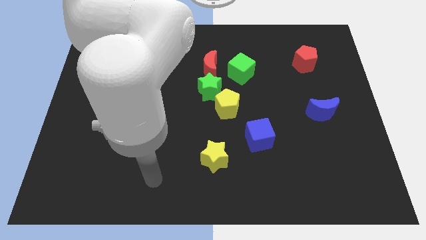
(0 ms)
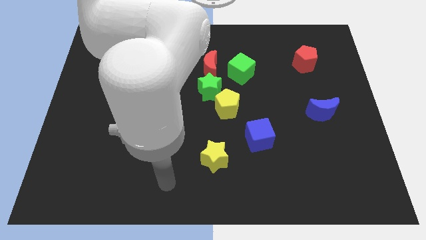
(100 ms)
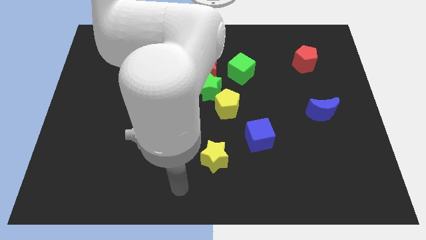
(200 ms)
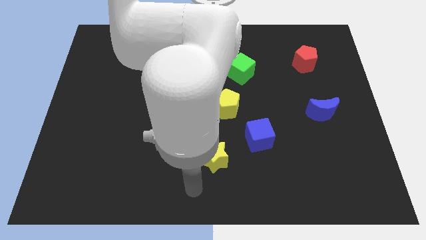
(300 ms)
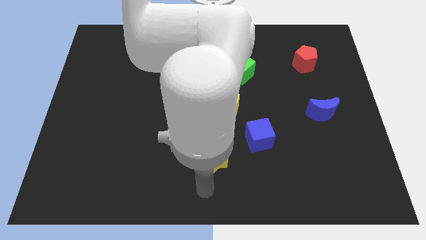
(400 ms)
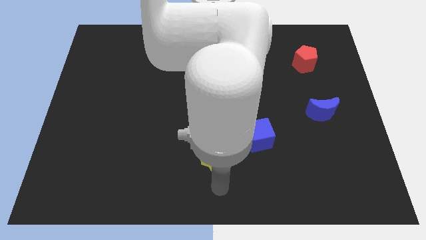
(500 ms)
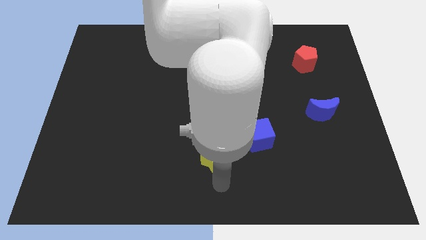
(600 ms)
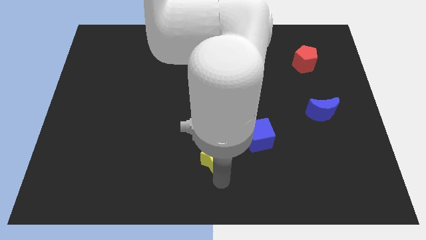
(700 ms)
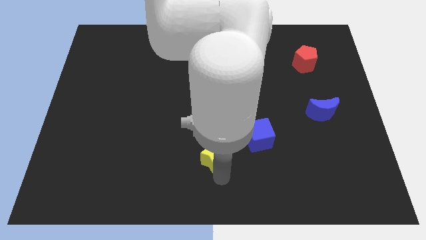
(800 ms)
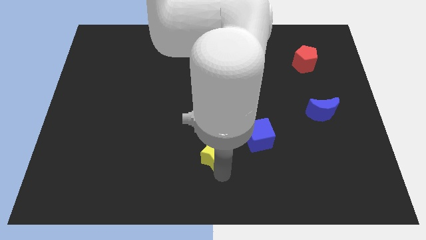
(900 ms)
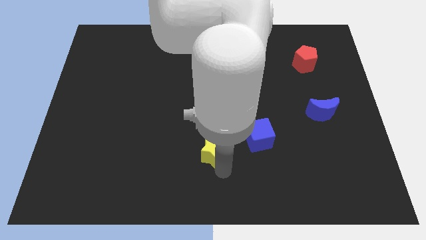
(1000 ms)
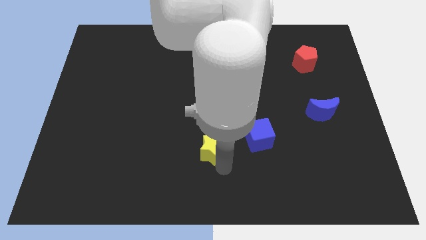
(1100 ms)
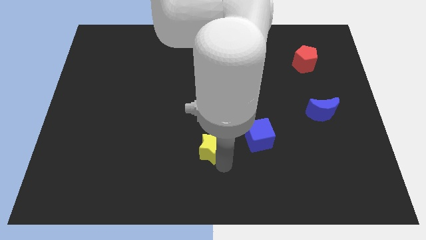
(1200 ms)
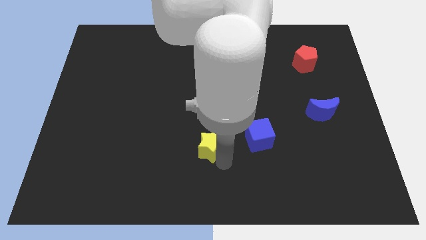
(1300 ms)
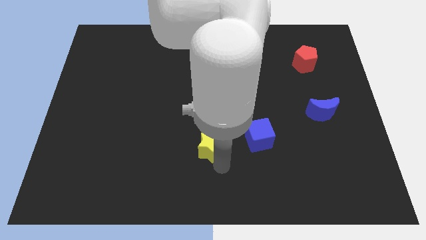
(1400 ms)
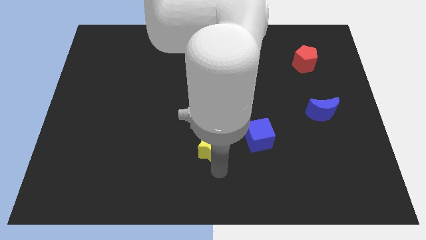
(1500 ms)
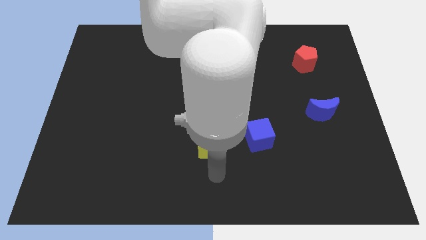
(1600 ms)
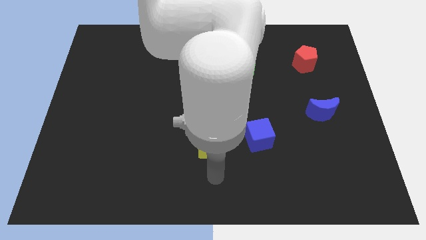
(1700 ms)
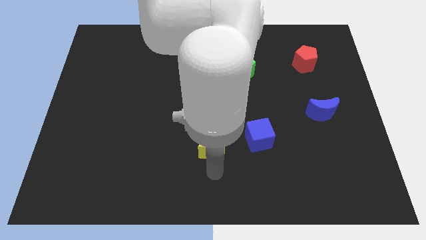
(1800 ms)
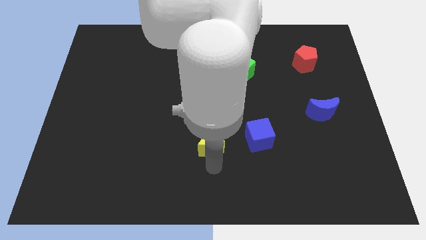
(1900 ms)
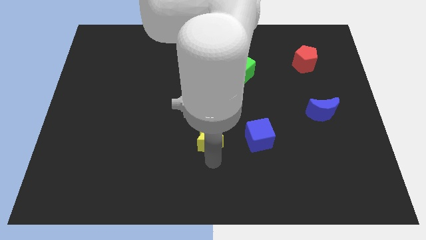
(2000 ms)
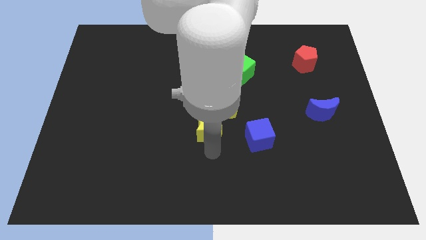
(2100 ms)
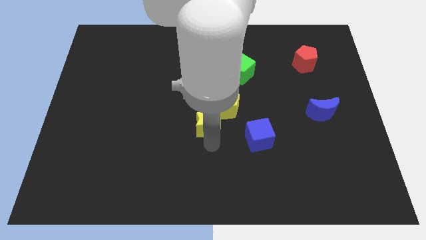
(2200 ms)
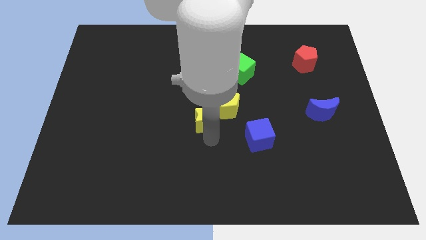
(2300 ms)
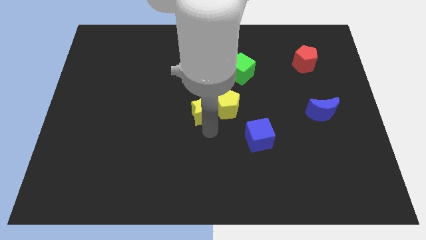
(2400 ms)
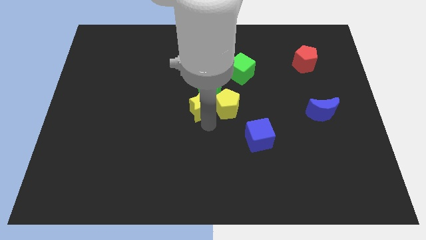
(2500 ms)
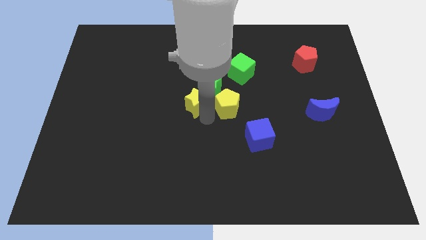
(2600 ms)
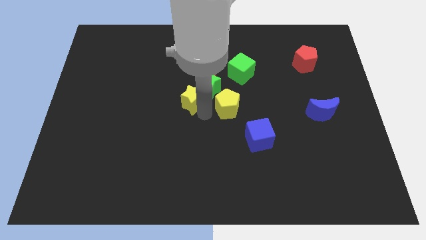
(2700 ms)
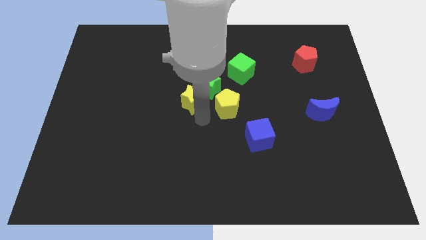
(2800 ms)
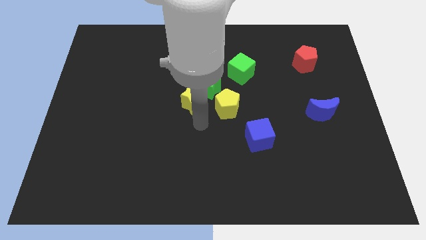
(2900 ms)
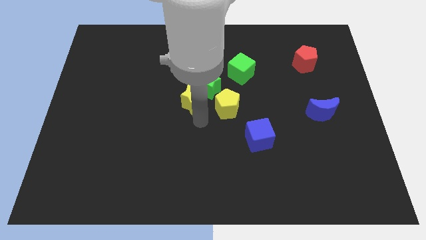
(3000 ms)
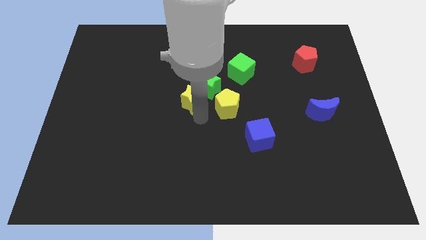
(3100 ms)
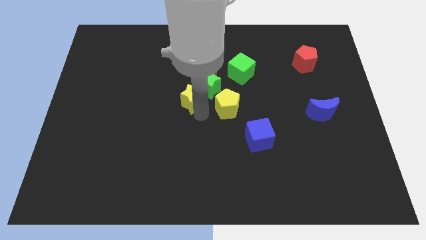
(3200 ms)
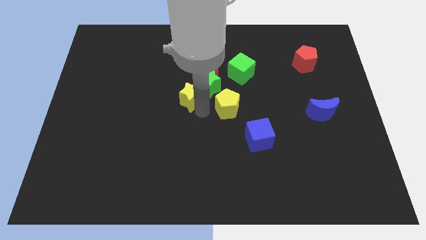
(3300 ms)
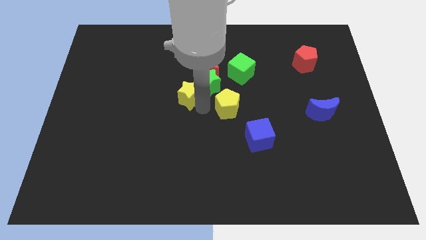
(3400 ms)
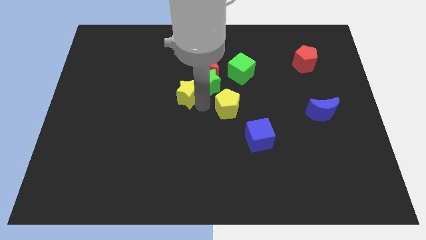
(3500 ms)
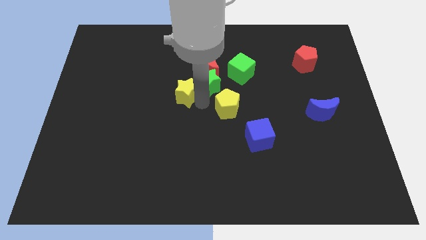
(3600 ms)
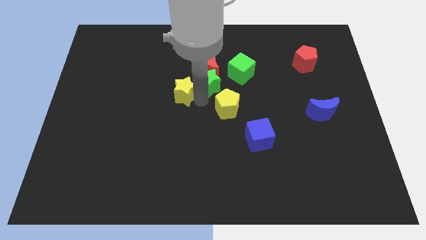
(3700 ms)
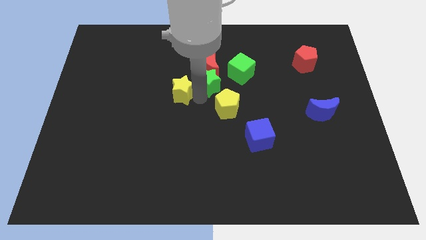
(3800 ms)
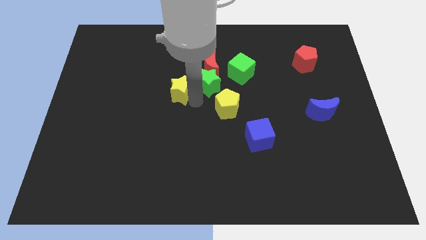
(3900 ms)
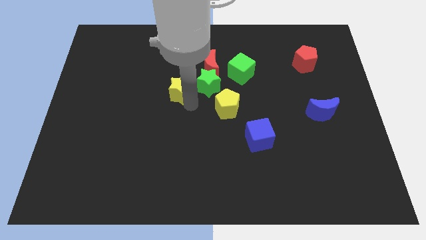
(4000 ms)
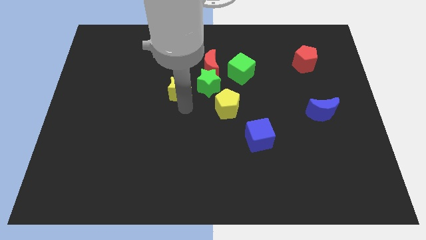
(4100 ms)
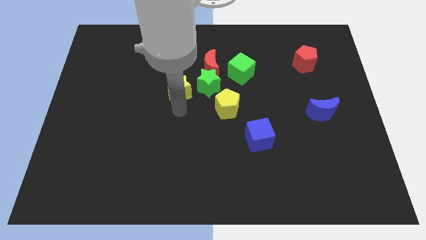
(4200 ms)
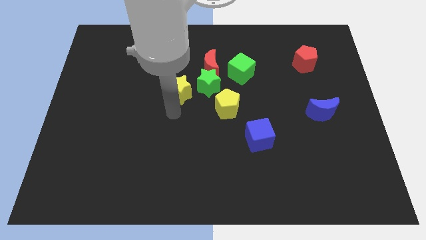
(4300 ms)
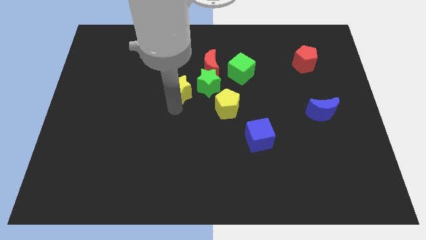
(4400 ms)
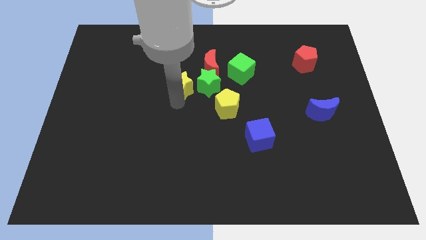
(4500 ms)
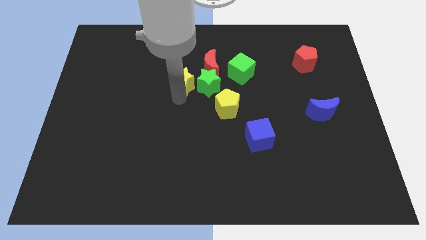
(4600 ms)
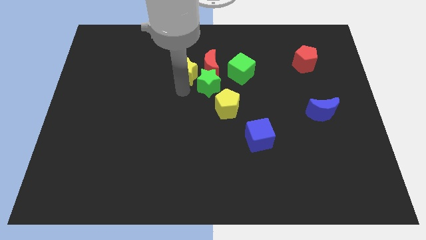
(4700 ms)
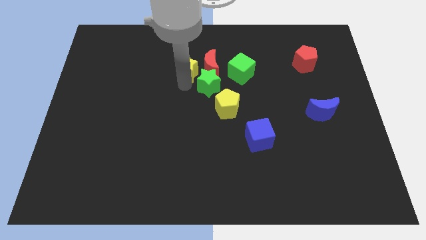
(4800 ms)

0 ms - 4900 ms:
move the yellow star to the top left of the red moon

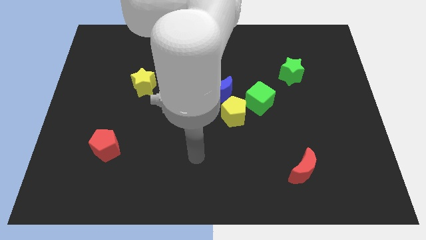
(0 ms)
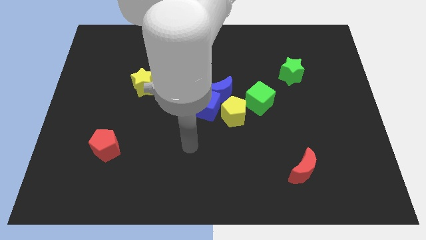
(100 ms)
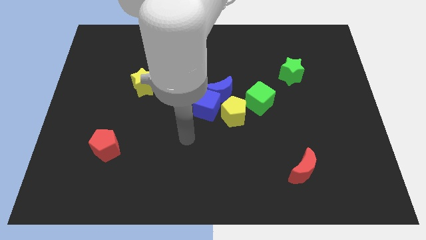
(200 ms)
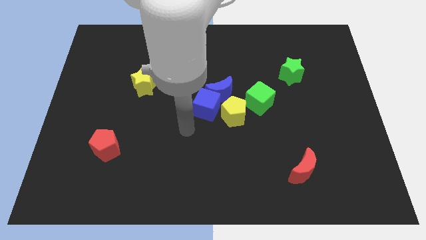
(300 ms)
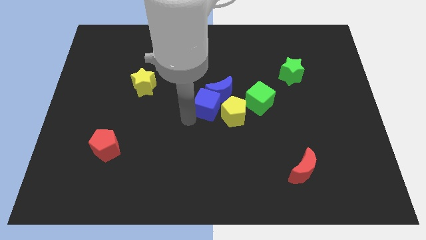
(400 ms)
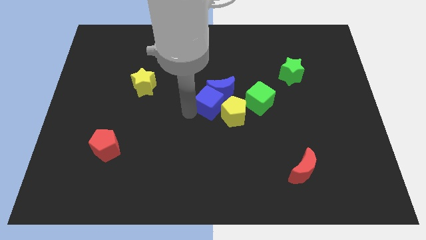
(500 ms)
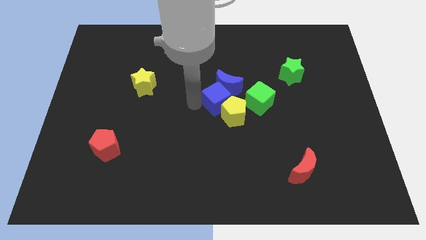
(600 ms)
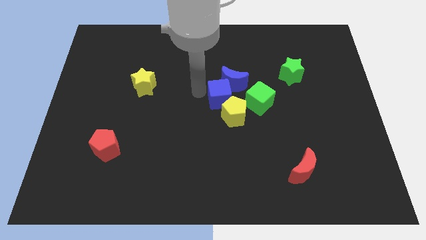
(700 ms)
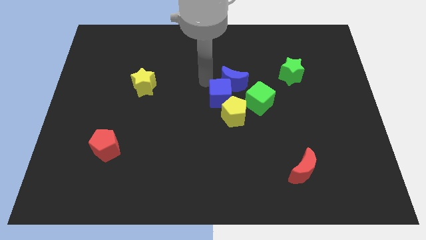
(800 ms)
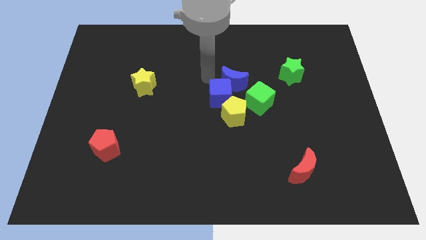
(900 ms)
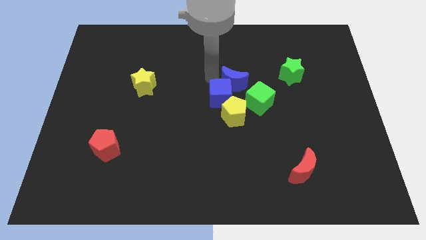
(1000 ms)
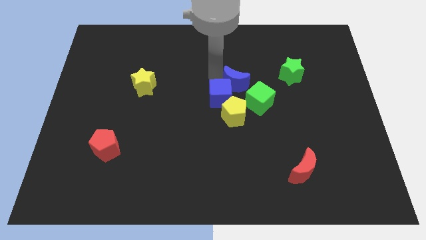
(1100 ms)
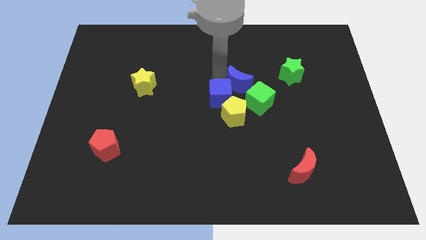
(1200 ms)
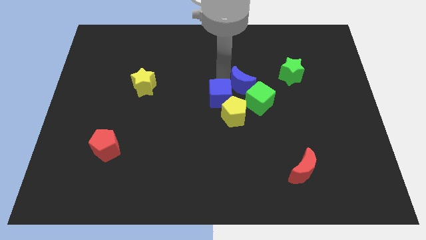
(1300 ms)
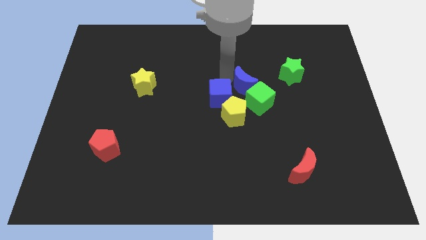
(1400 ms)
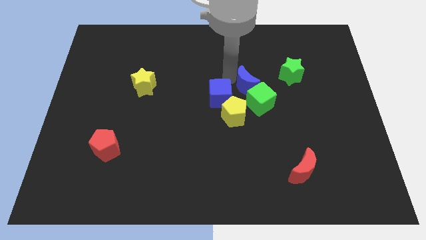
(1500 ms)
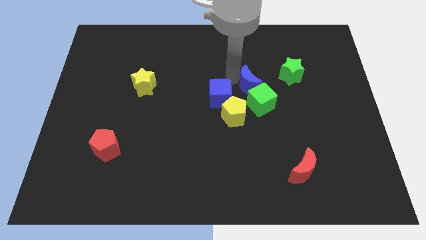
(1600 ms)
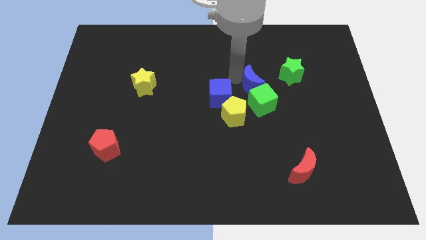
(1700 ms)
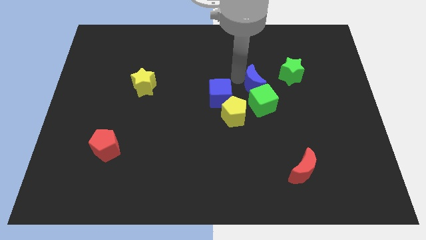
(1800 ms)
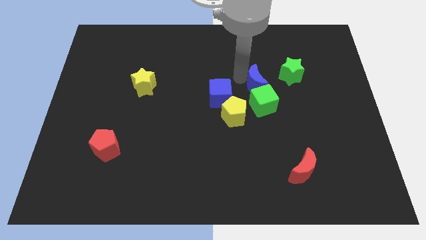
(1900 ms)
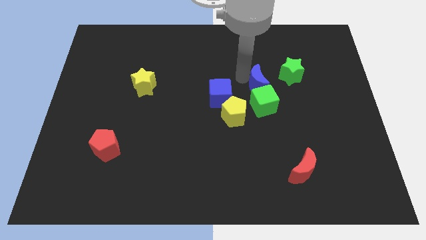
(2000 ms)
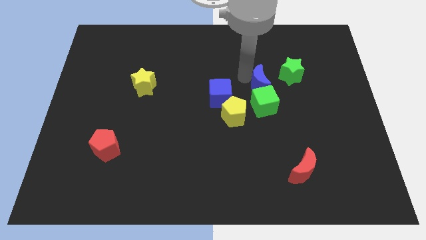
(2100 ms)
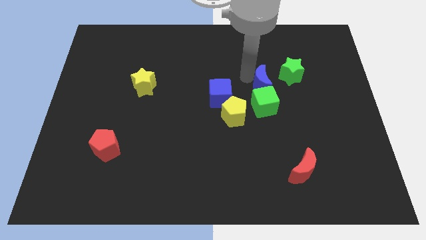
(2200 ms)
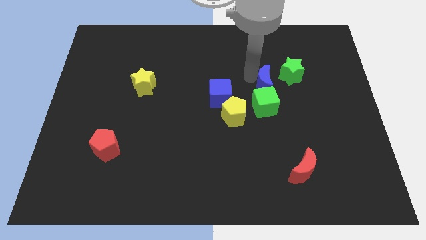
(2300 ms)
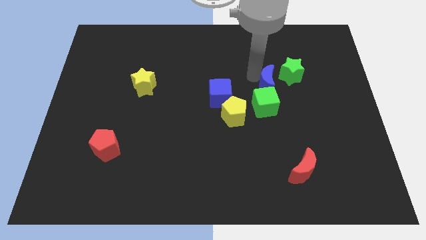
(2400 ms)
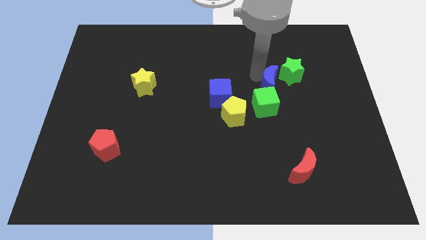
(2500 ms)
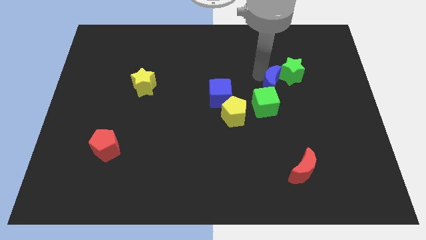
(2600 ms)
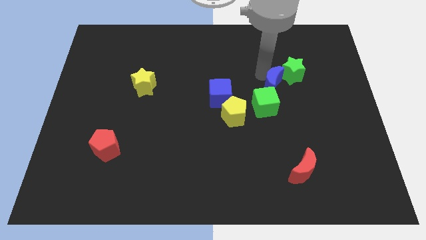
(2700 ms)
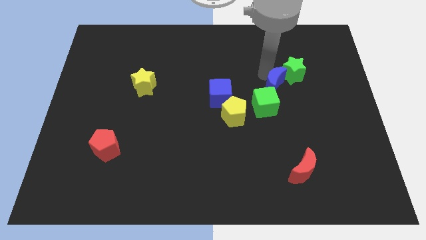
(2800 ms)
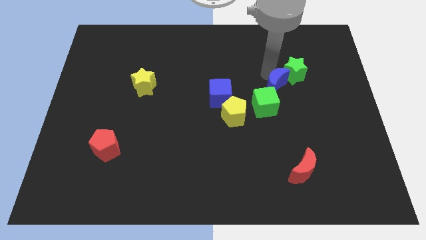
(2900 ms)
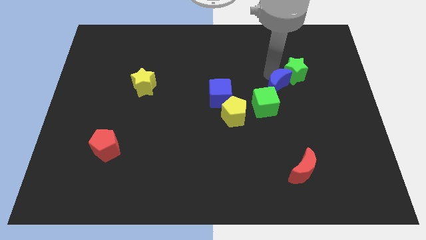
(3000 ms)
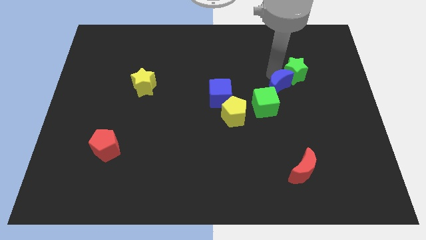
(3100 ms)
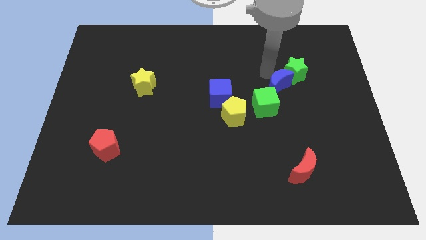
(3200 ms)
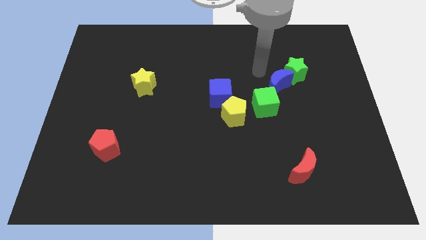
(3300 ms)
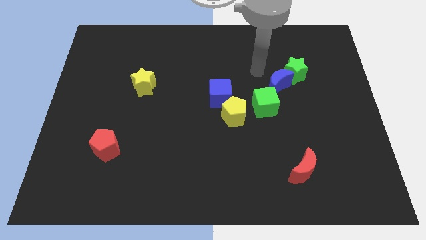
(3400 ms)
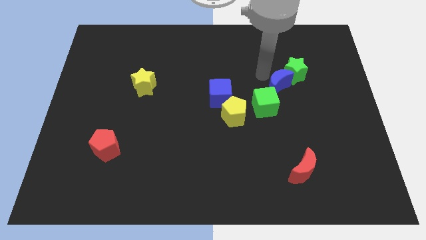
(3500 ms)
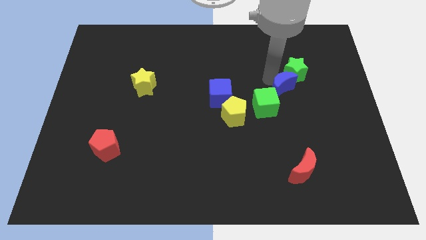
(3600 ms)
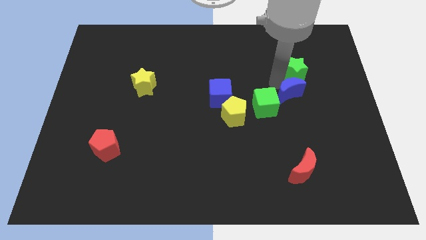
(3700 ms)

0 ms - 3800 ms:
put the blue moon to the right side of the green cube
